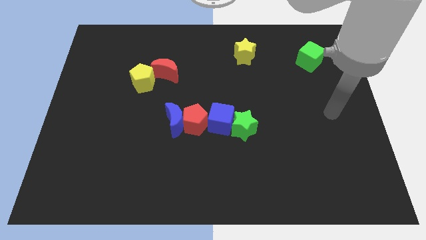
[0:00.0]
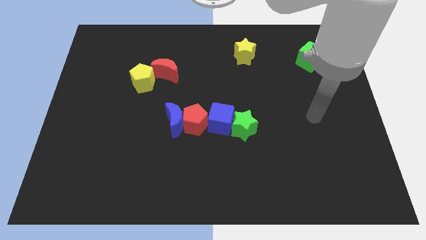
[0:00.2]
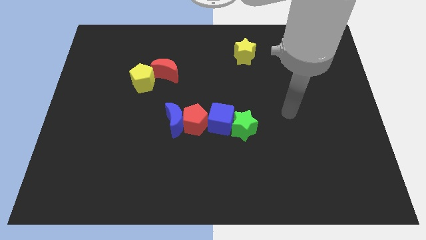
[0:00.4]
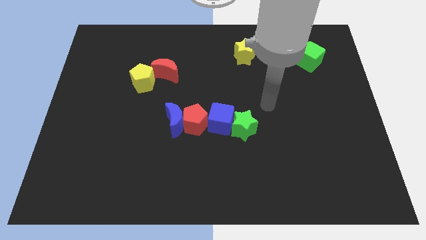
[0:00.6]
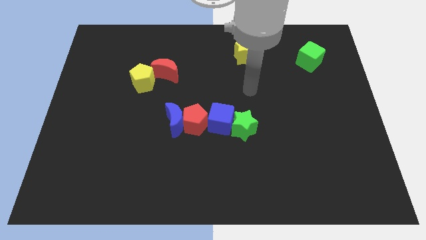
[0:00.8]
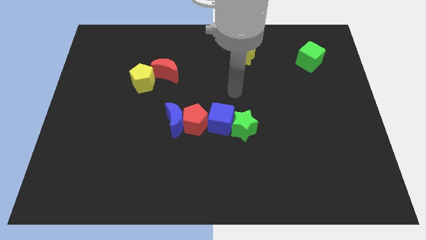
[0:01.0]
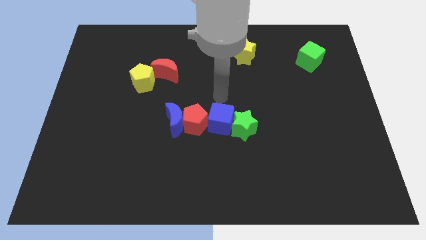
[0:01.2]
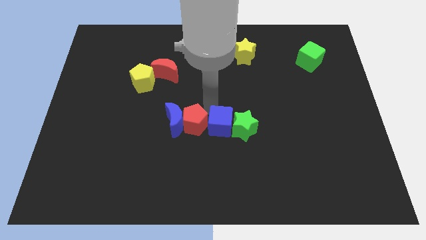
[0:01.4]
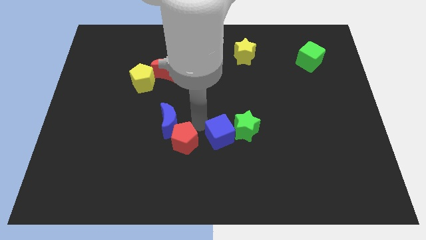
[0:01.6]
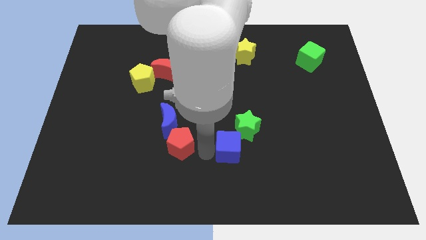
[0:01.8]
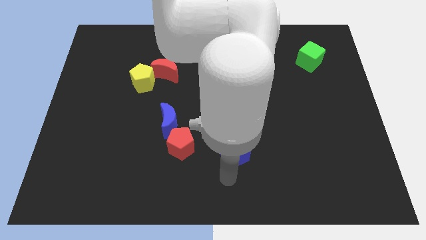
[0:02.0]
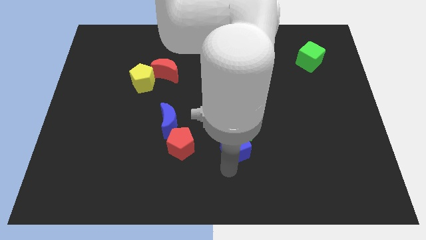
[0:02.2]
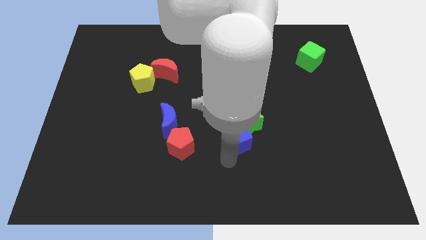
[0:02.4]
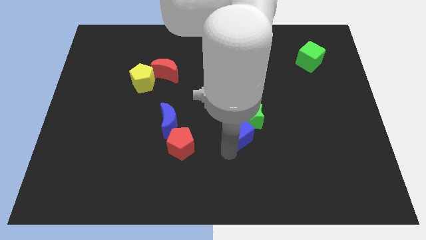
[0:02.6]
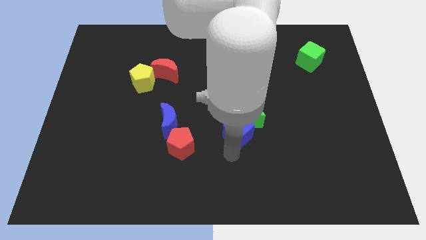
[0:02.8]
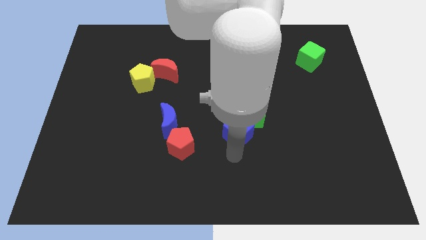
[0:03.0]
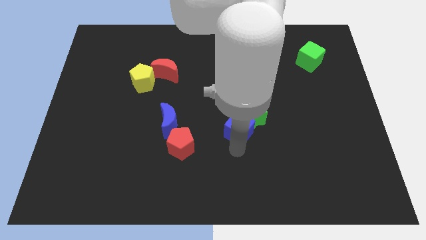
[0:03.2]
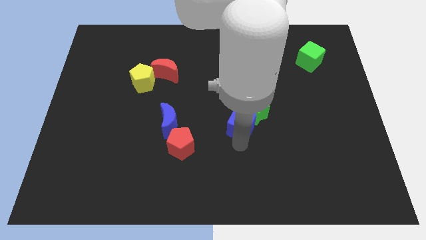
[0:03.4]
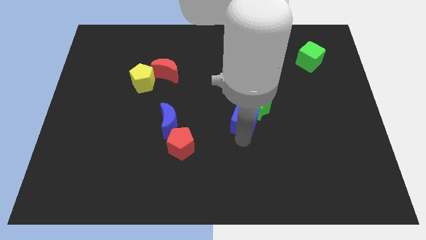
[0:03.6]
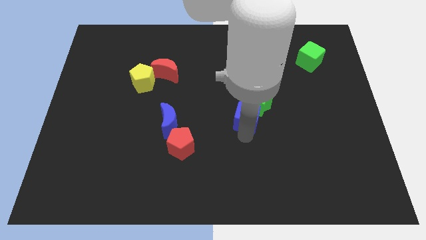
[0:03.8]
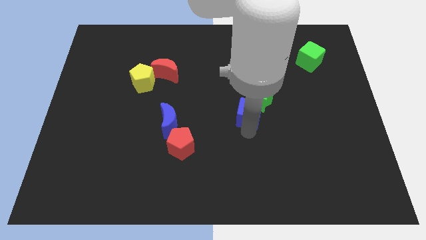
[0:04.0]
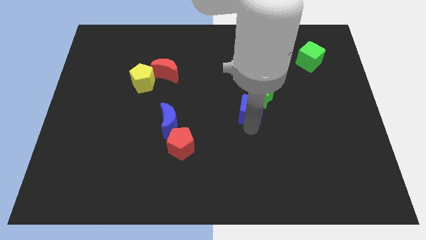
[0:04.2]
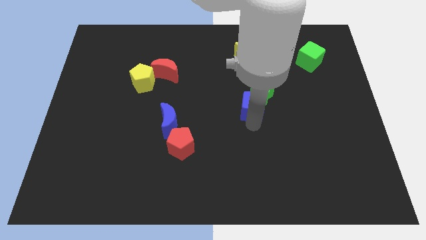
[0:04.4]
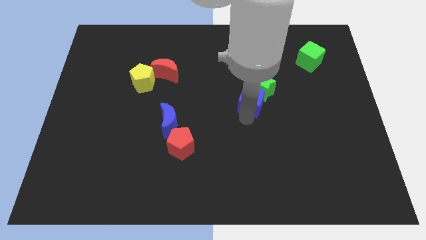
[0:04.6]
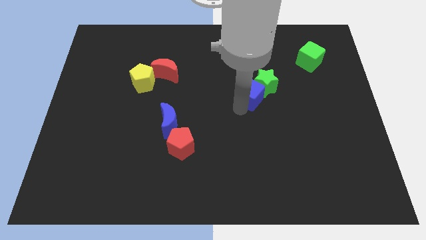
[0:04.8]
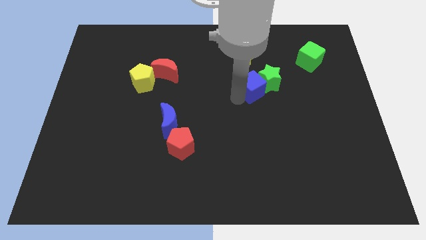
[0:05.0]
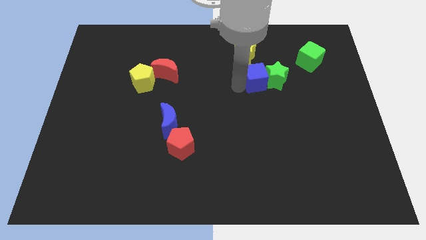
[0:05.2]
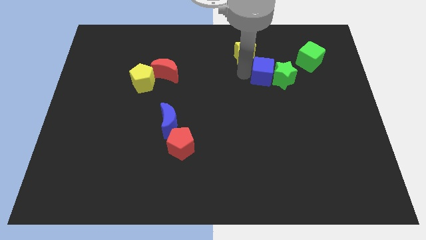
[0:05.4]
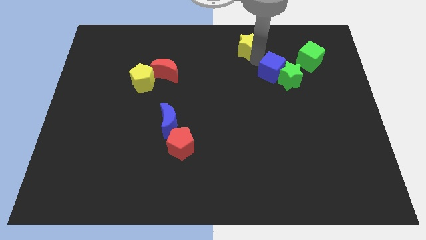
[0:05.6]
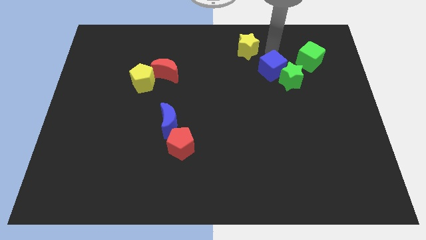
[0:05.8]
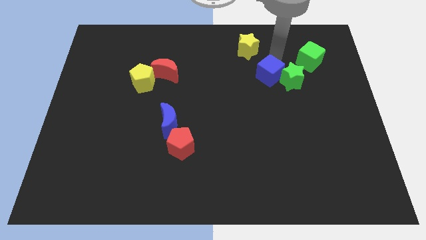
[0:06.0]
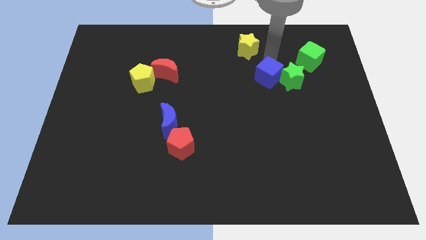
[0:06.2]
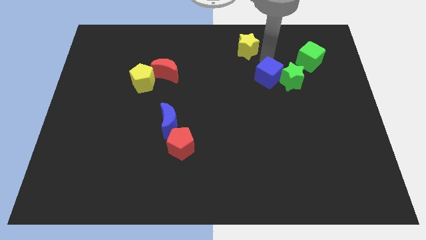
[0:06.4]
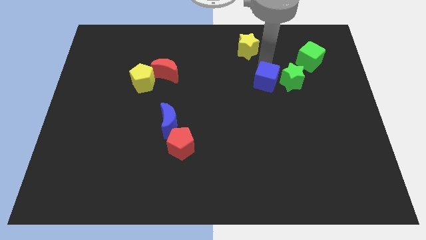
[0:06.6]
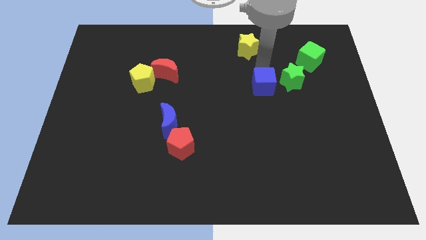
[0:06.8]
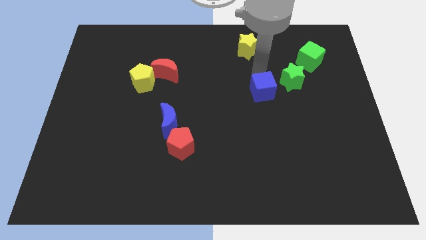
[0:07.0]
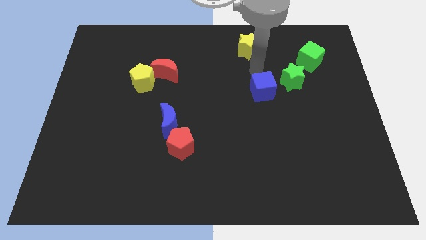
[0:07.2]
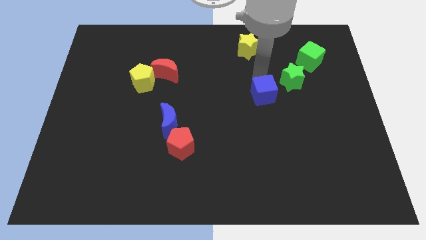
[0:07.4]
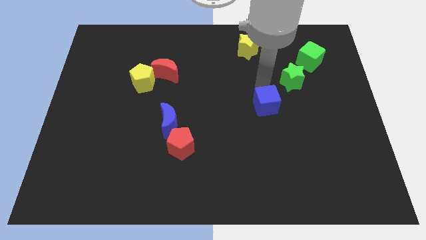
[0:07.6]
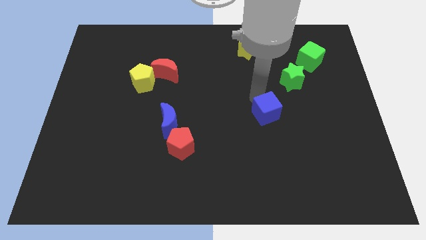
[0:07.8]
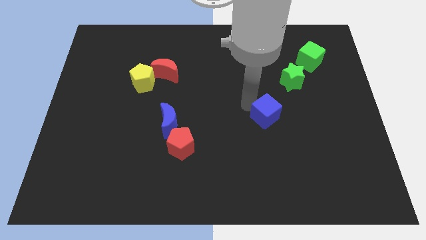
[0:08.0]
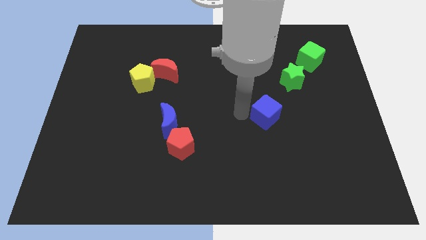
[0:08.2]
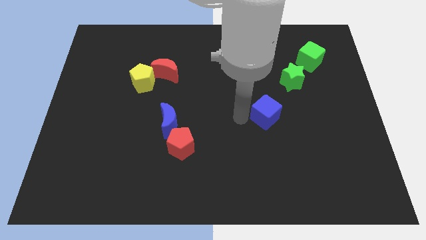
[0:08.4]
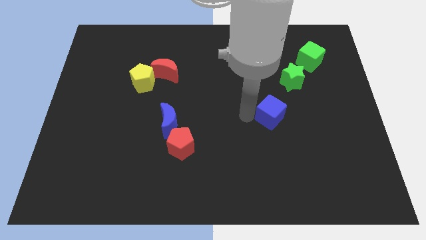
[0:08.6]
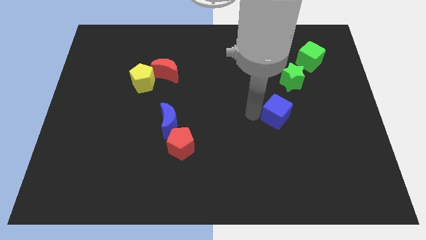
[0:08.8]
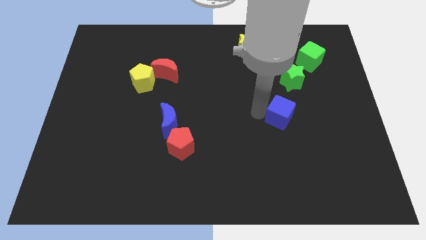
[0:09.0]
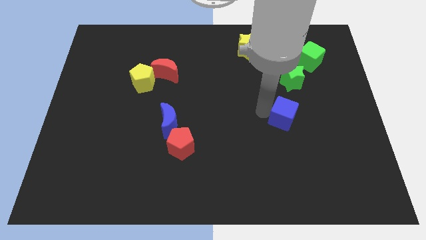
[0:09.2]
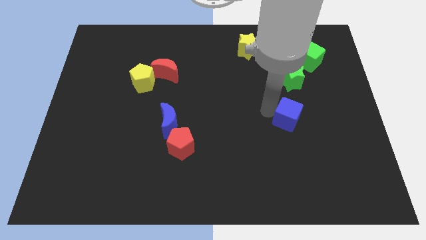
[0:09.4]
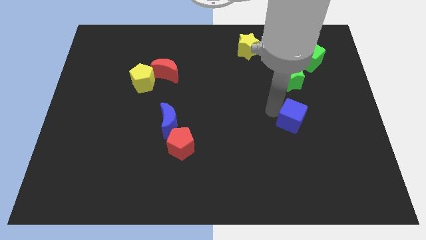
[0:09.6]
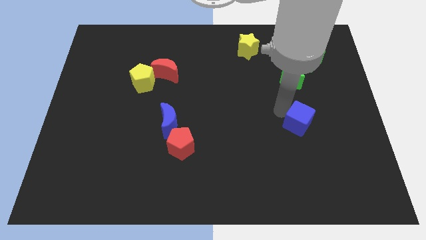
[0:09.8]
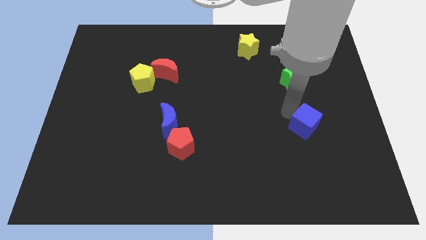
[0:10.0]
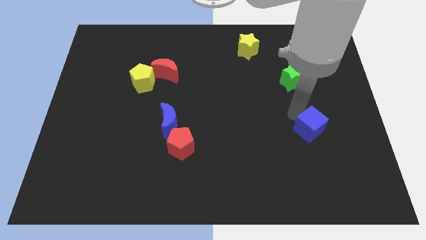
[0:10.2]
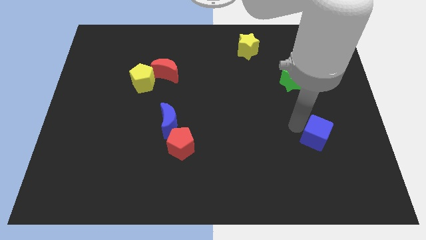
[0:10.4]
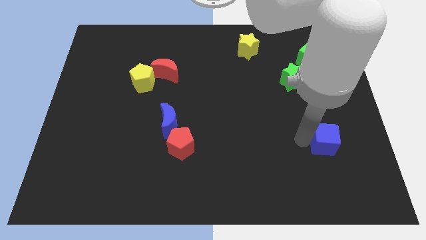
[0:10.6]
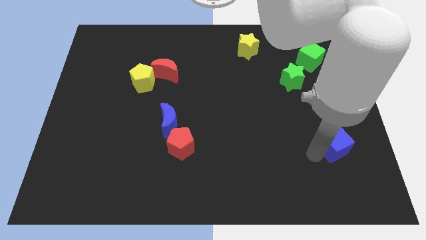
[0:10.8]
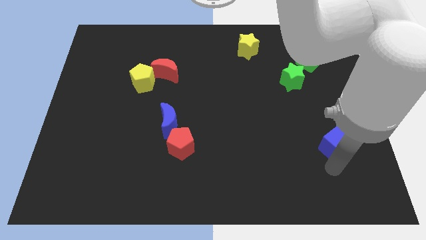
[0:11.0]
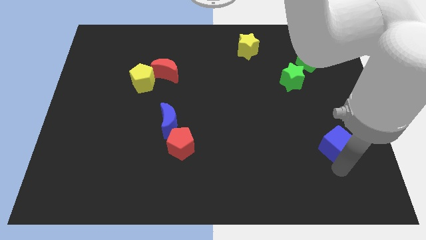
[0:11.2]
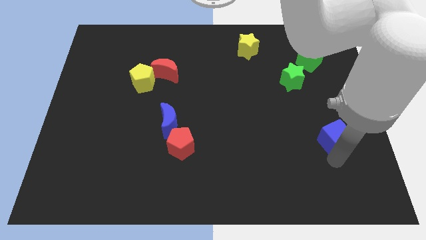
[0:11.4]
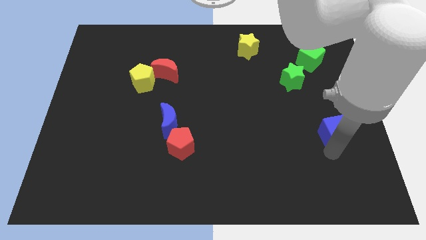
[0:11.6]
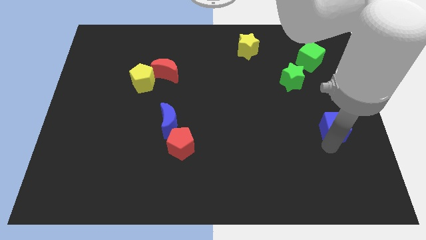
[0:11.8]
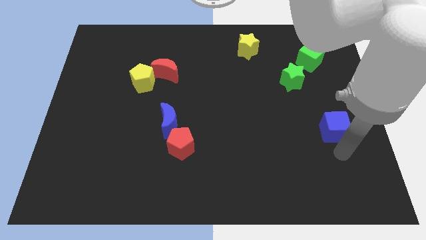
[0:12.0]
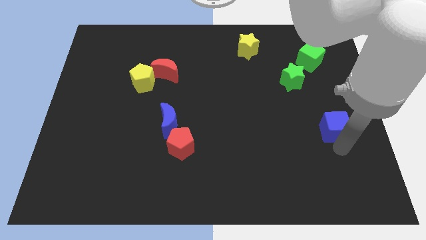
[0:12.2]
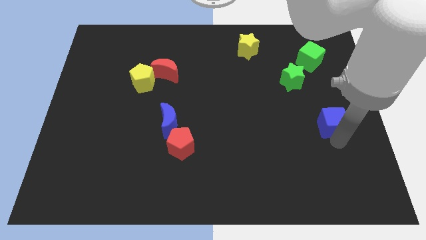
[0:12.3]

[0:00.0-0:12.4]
push the blue cube to the right side of the board

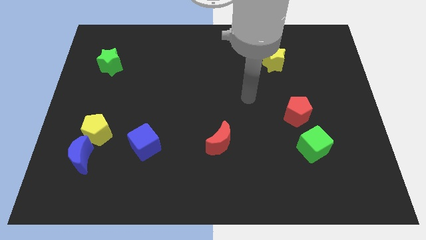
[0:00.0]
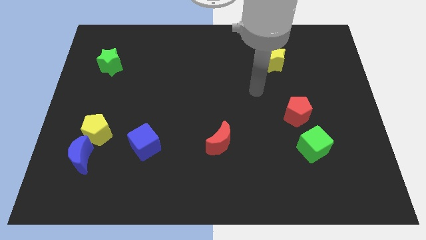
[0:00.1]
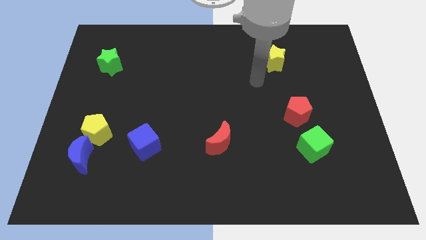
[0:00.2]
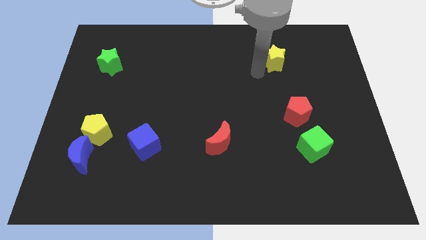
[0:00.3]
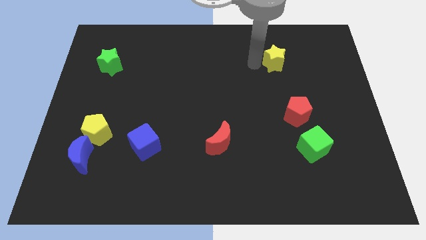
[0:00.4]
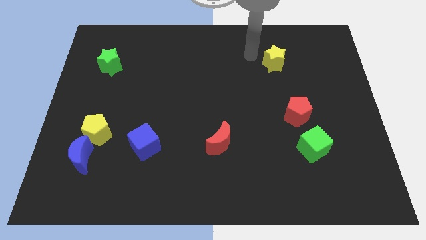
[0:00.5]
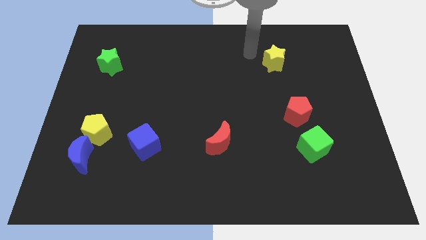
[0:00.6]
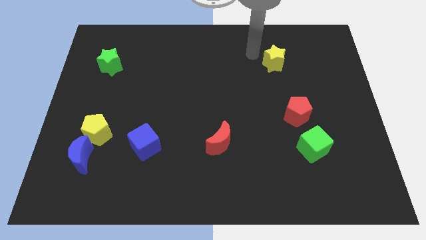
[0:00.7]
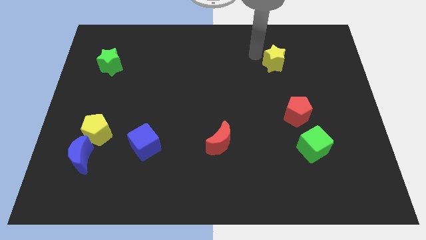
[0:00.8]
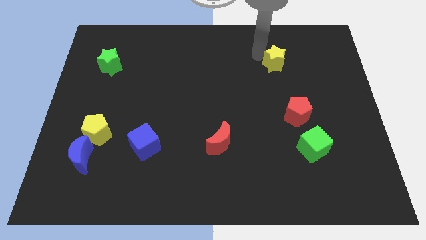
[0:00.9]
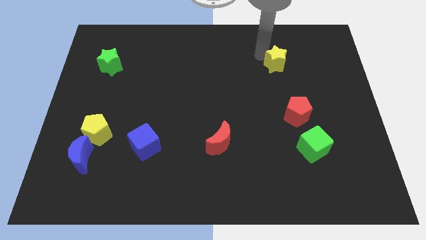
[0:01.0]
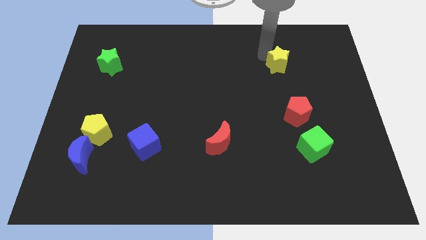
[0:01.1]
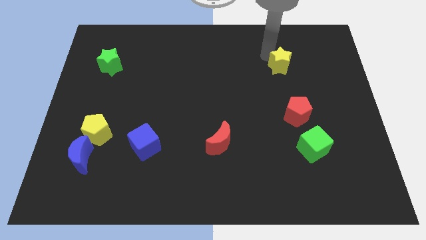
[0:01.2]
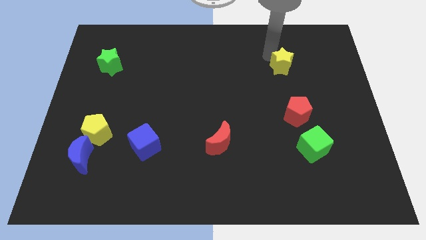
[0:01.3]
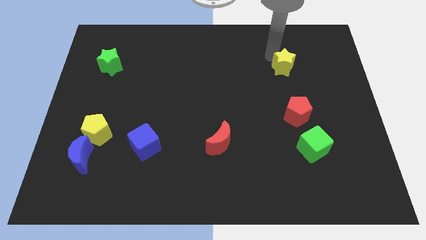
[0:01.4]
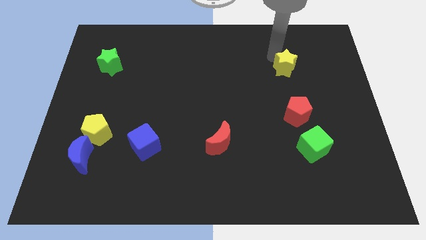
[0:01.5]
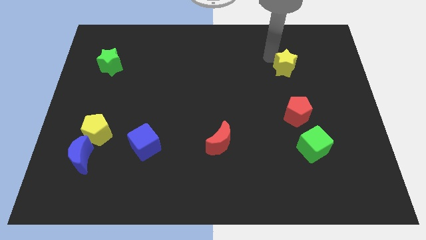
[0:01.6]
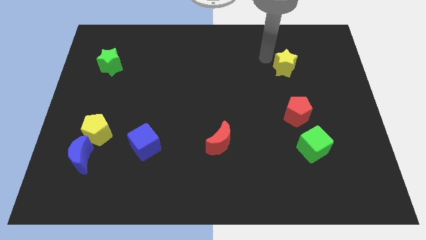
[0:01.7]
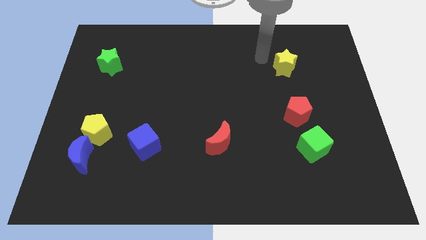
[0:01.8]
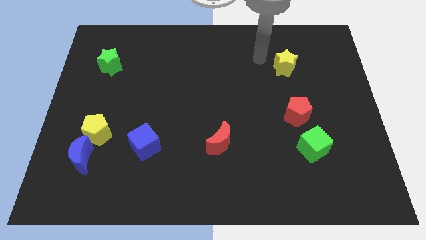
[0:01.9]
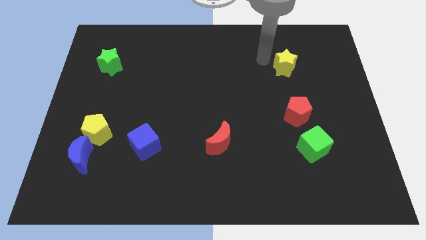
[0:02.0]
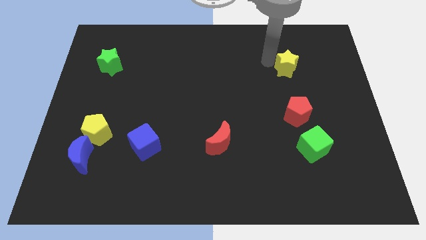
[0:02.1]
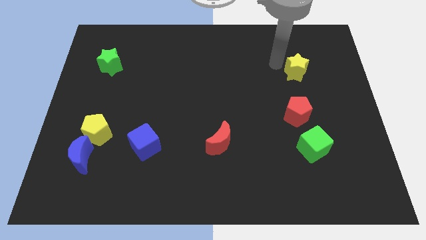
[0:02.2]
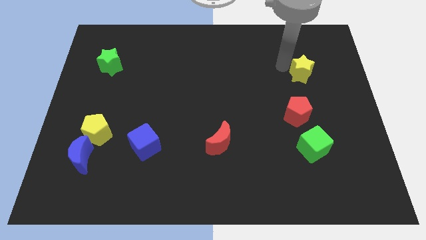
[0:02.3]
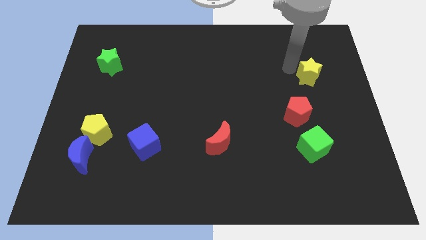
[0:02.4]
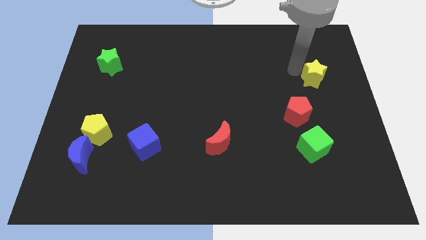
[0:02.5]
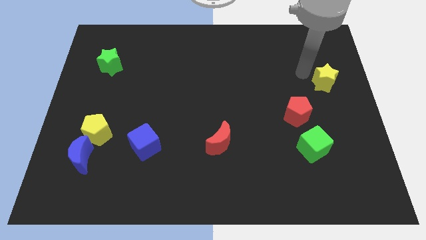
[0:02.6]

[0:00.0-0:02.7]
put the yellow star to the right side
